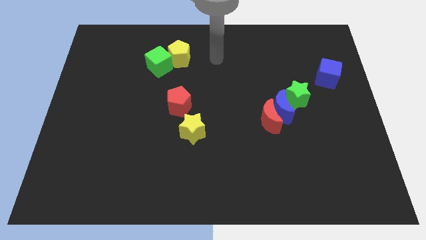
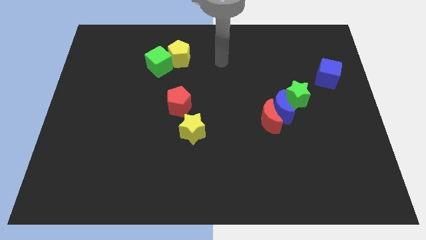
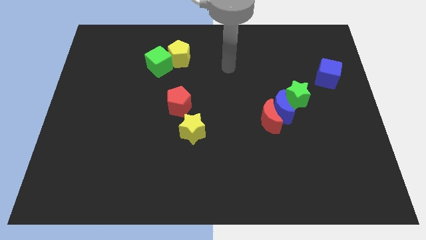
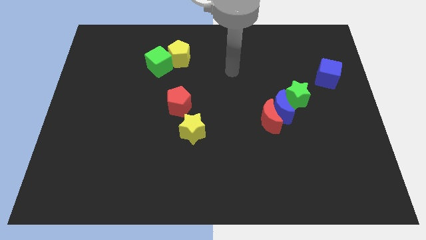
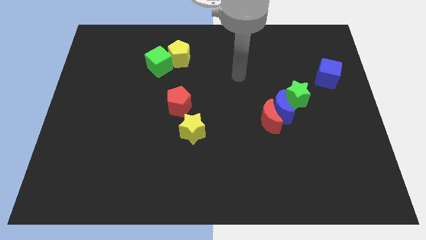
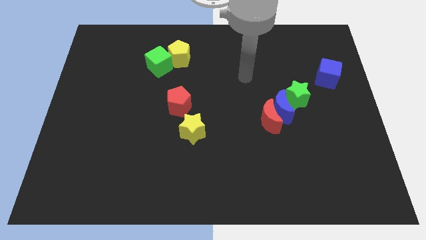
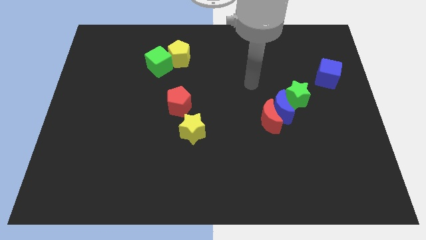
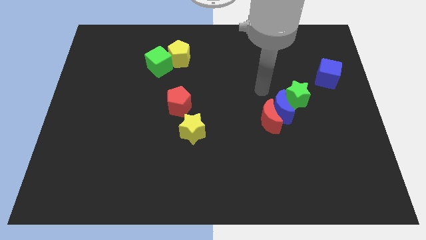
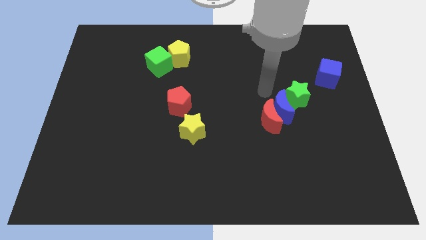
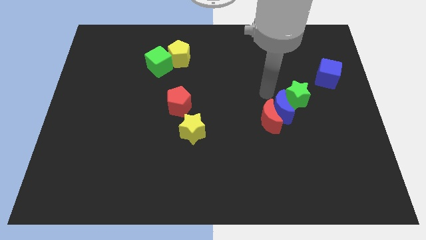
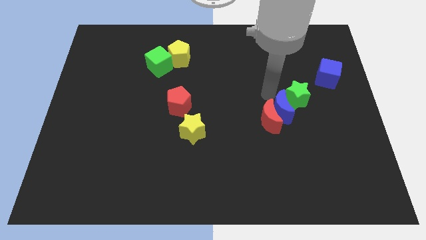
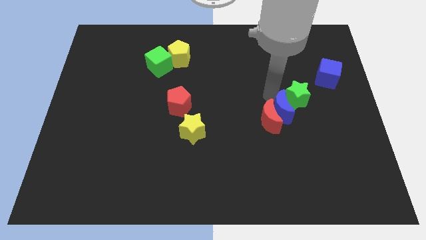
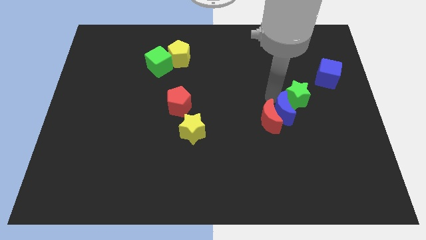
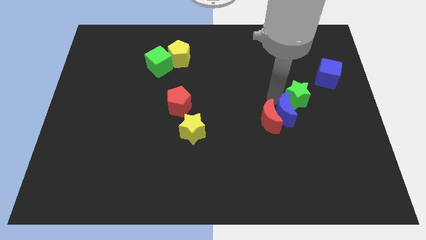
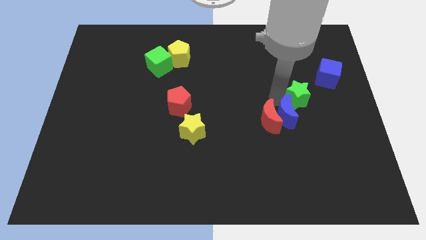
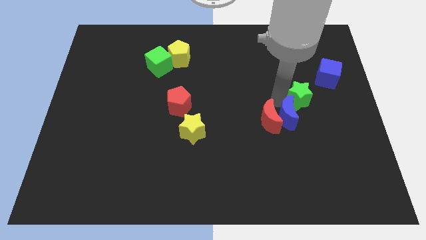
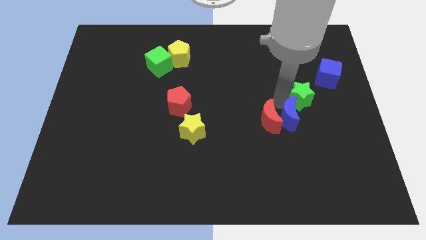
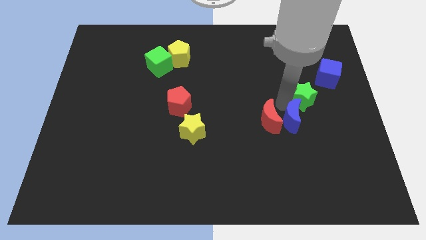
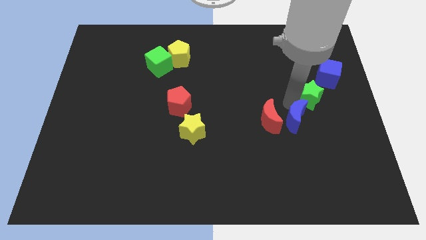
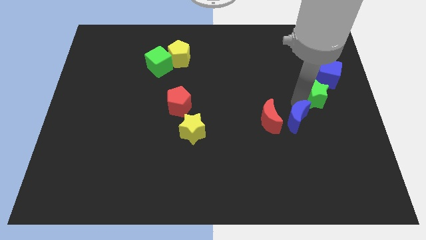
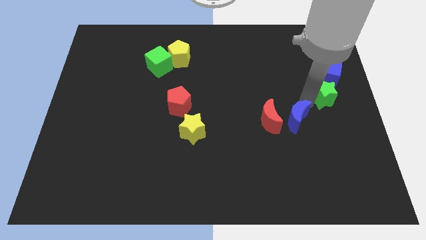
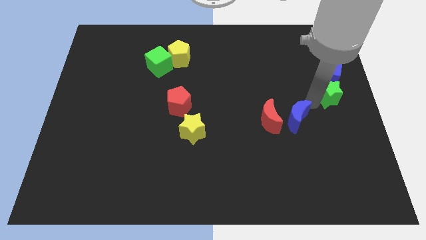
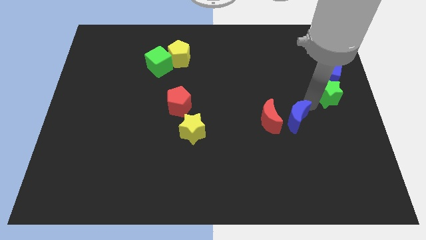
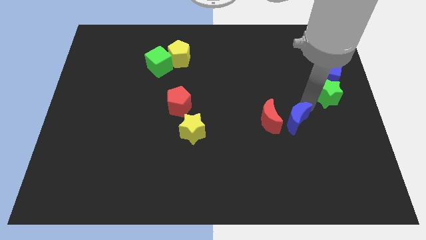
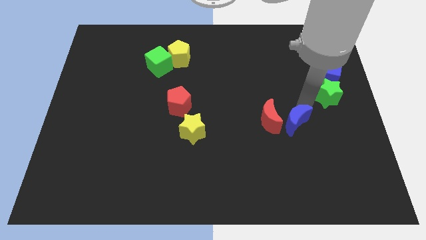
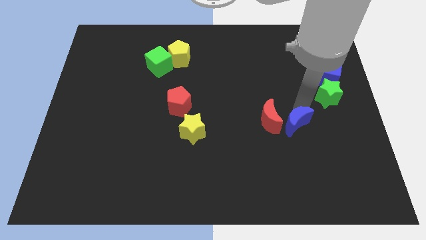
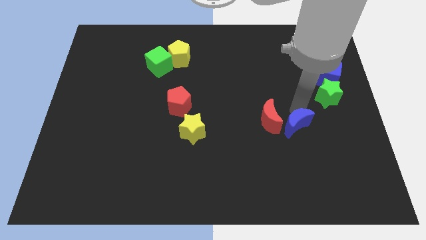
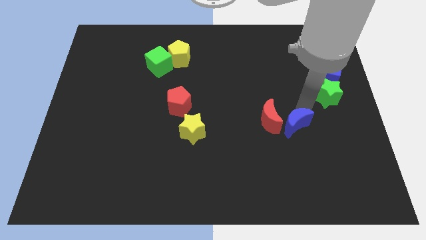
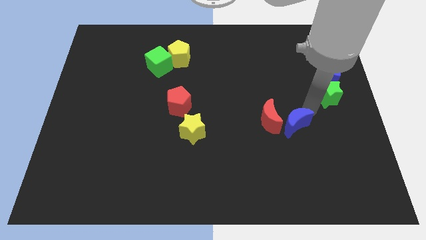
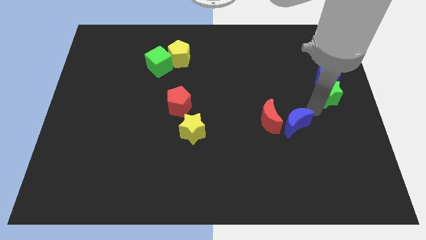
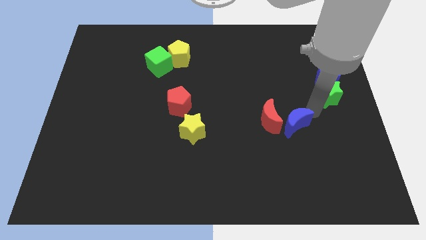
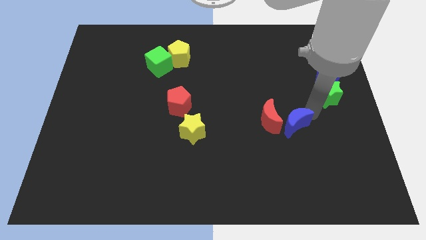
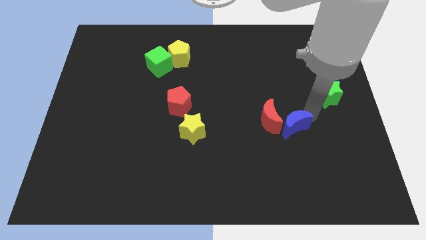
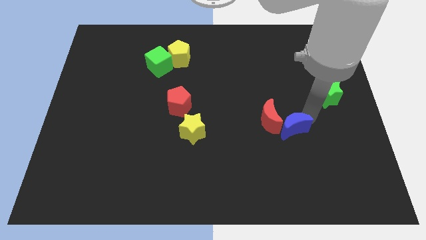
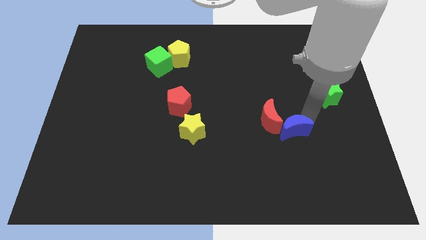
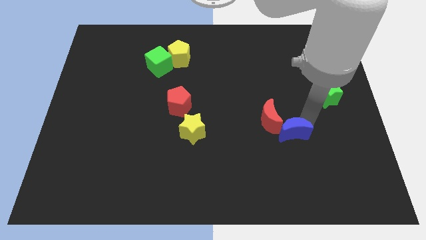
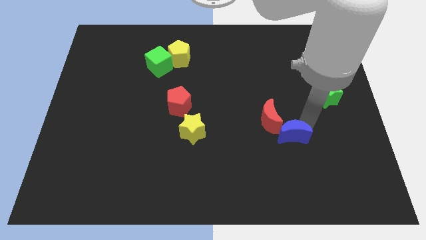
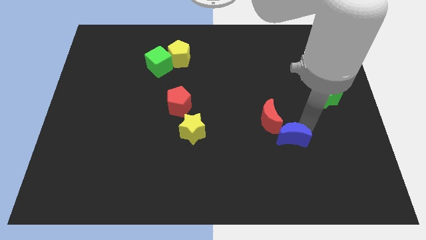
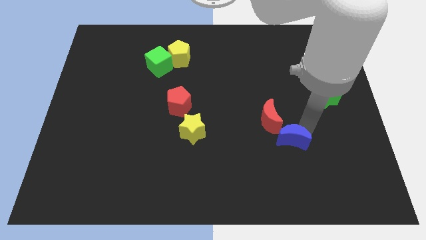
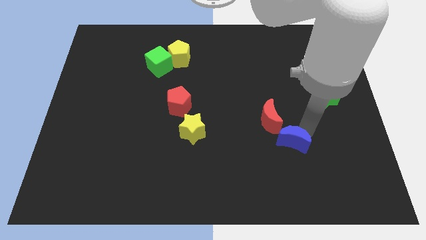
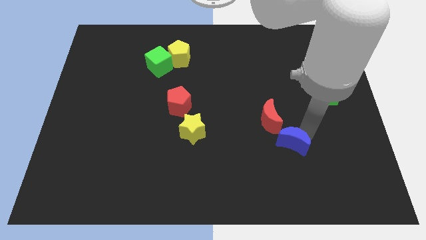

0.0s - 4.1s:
move the blue moon away from the red moon and green star

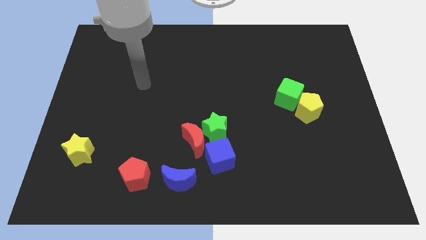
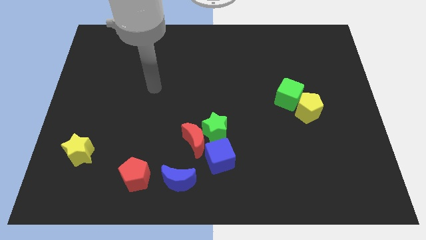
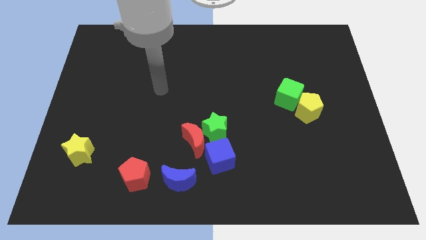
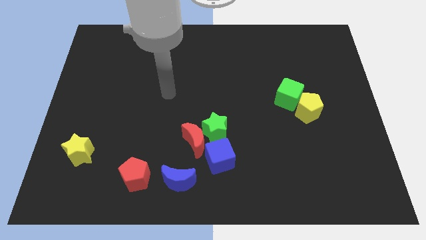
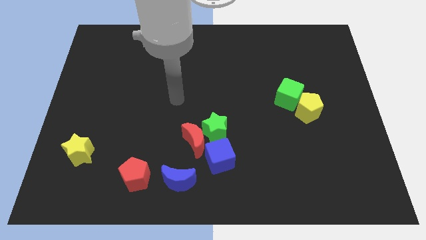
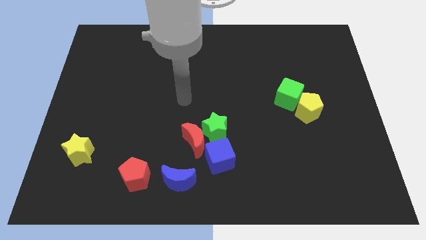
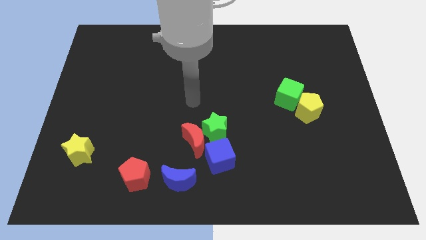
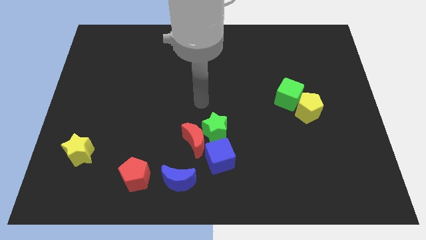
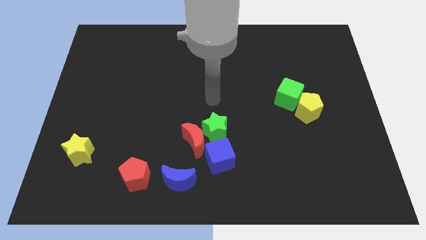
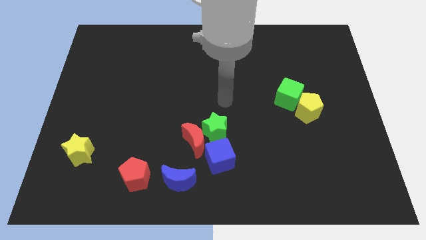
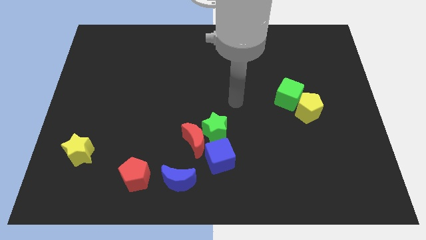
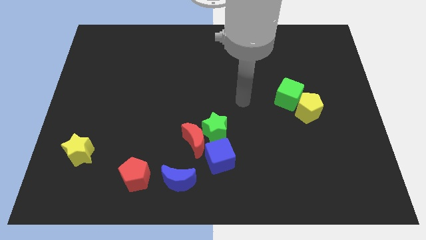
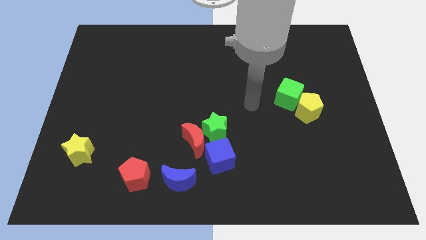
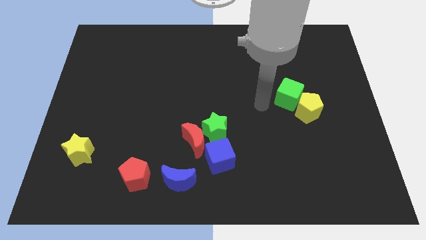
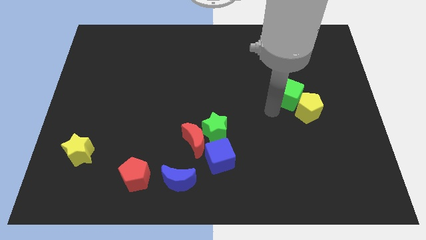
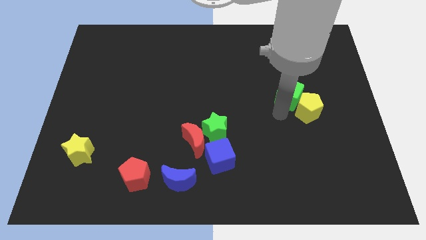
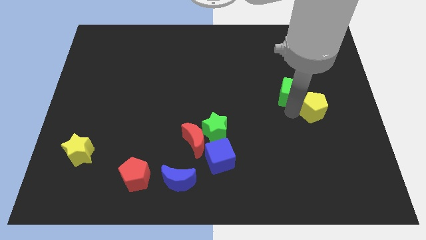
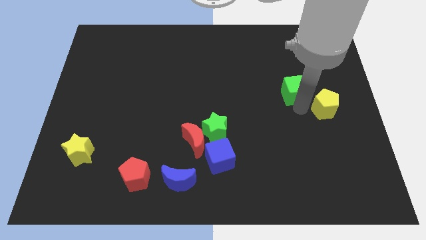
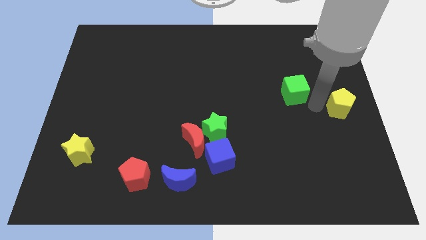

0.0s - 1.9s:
move the green cube away from the yellow pentagon

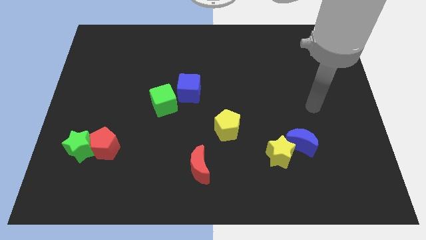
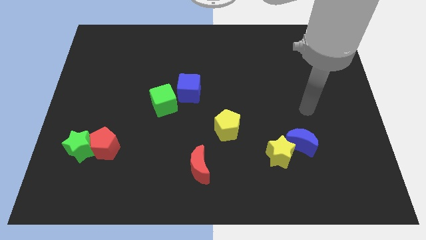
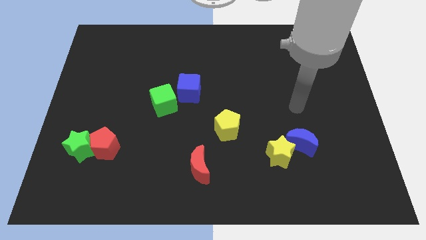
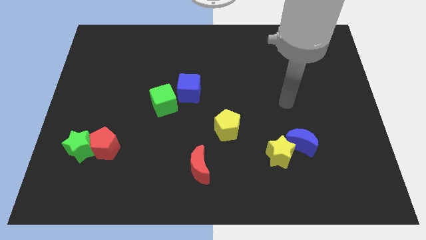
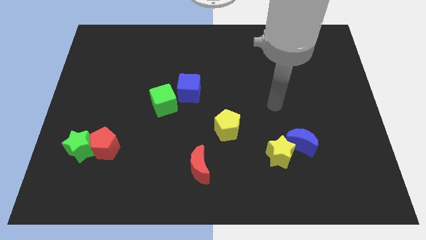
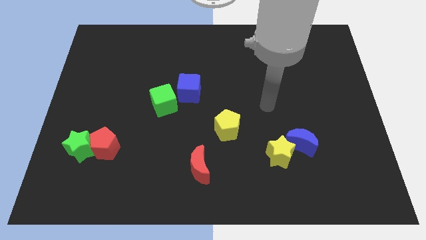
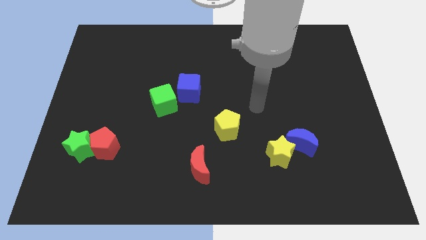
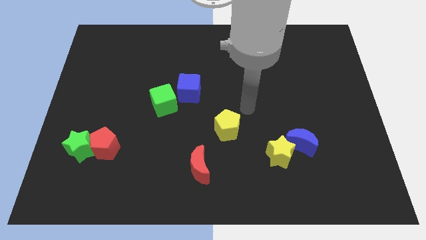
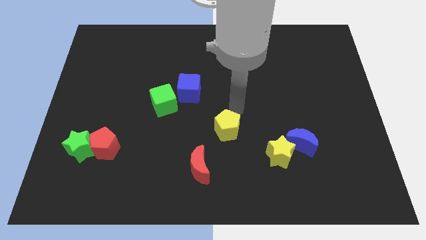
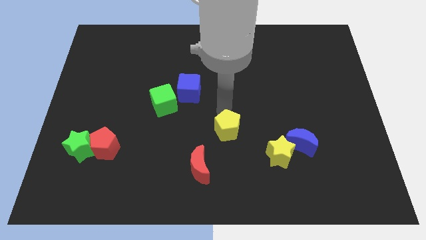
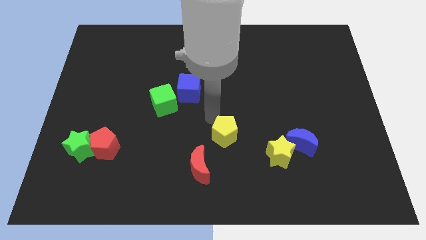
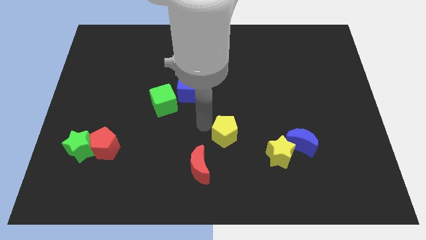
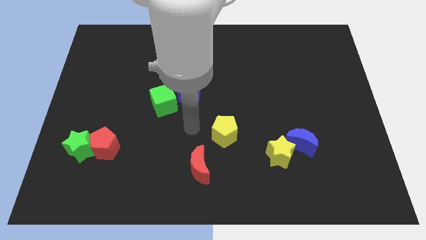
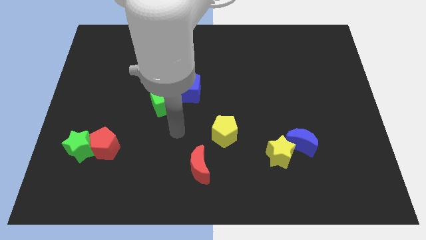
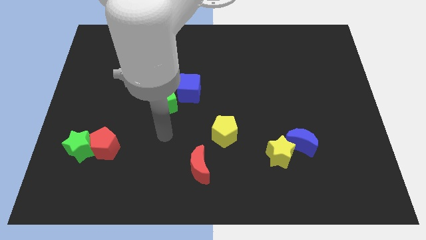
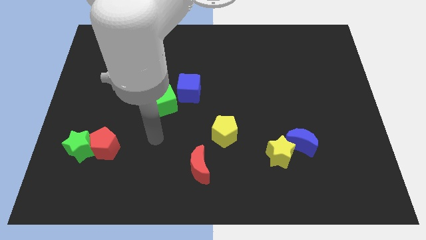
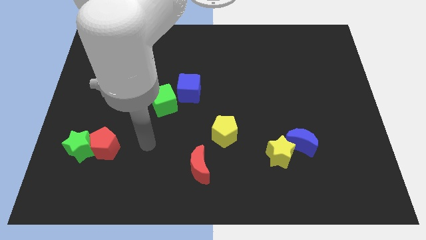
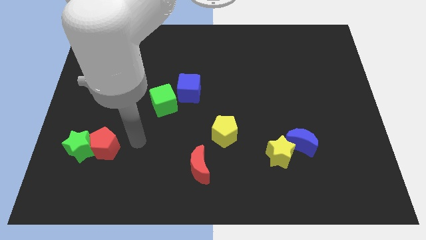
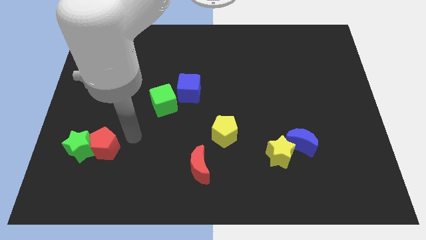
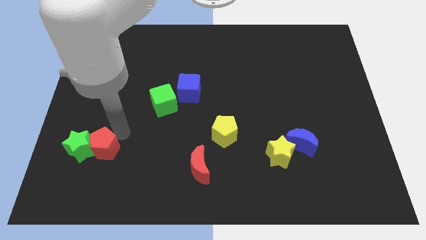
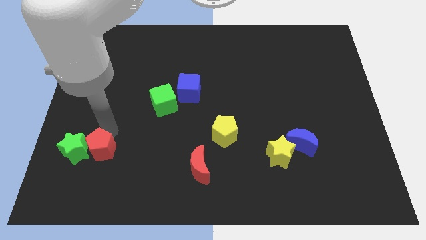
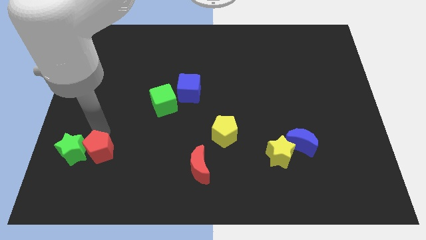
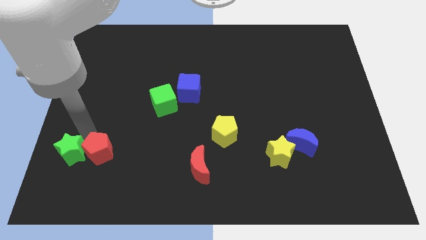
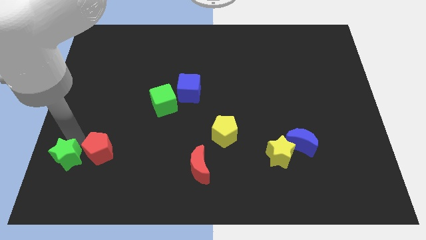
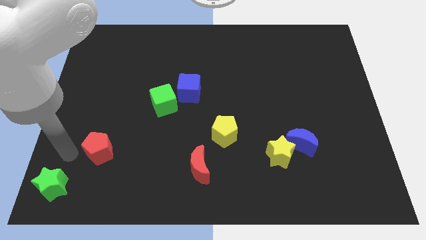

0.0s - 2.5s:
move the red pentagon away from the green star

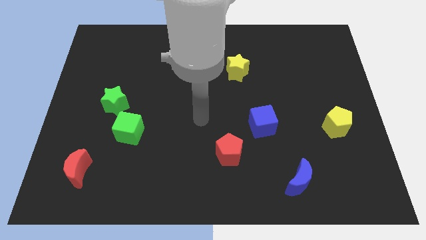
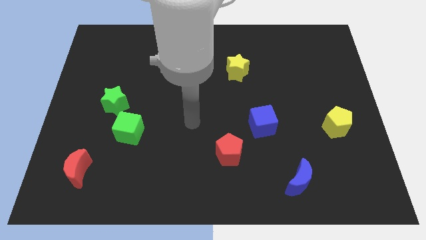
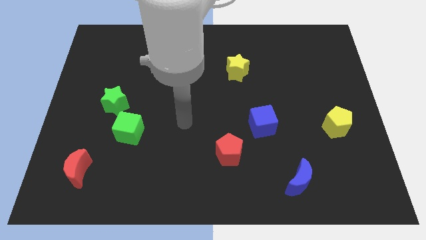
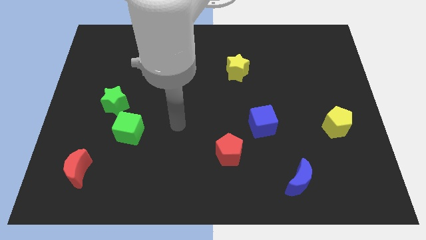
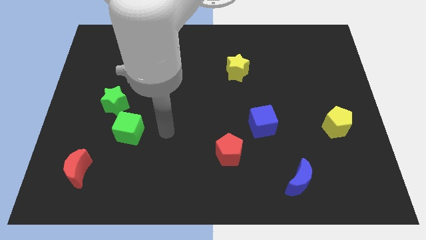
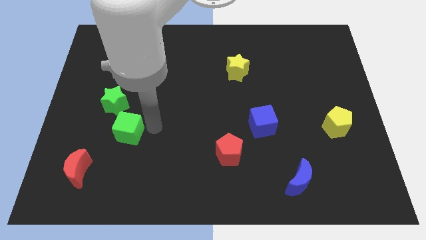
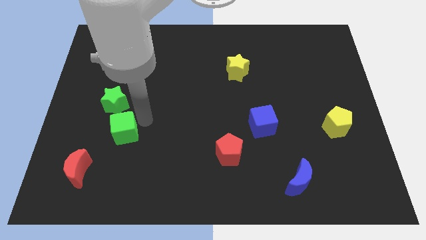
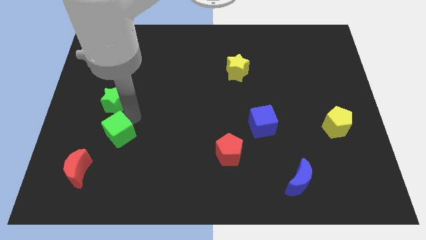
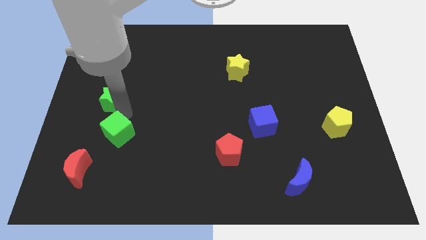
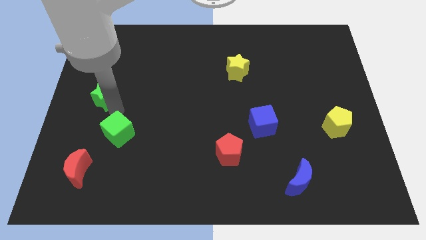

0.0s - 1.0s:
pull the green cube apart from the green star
